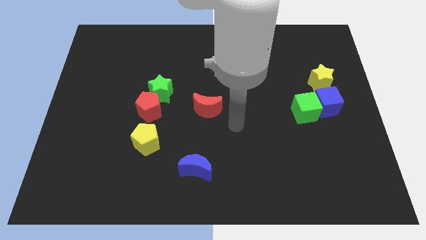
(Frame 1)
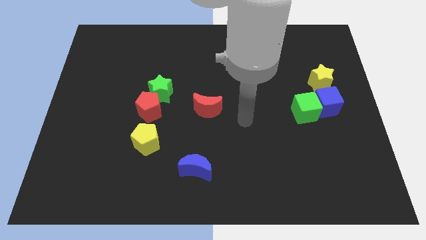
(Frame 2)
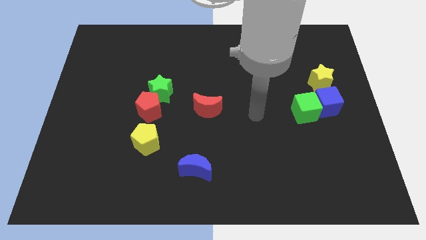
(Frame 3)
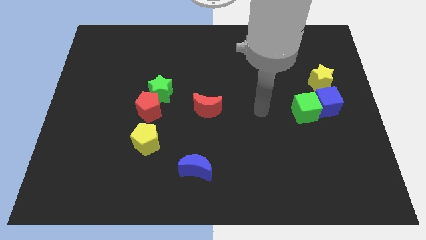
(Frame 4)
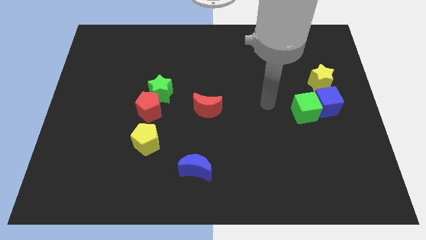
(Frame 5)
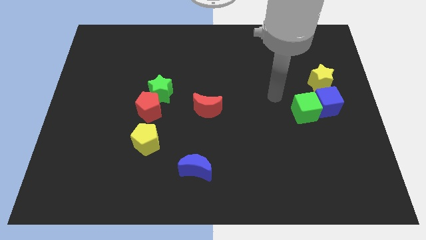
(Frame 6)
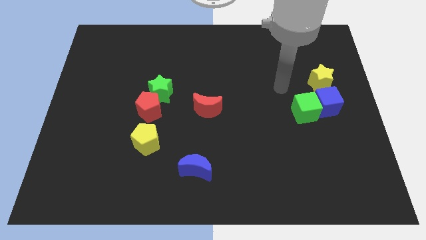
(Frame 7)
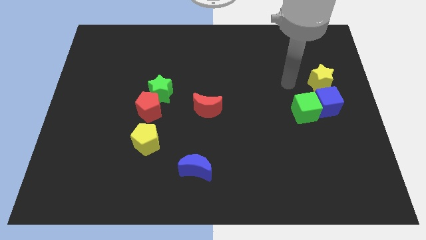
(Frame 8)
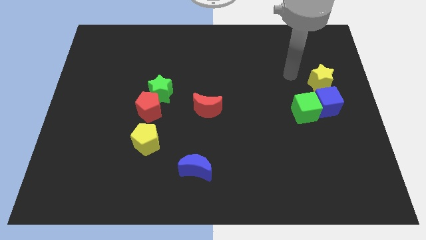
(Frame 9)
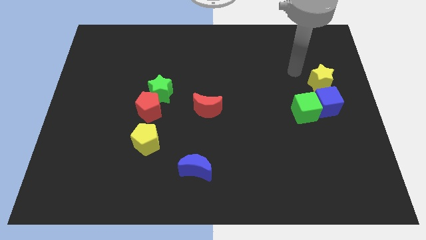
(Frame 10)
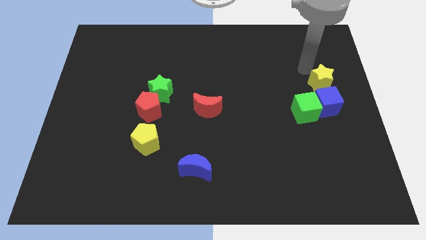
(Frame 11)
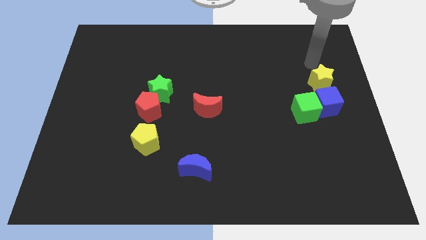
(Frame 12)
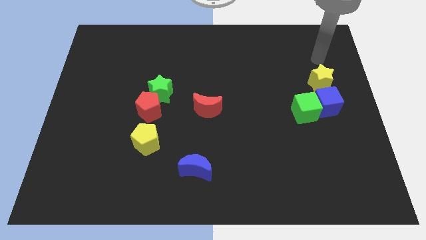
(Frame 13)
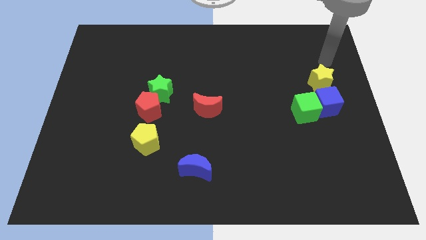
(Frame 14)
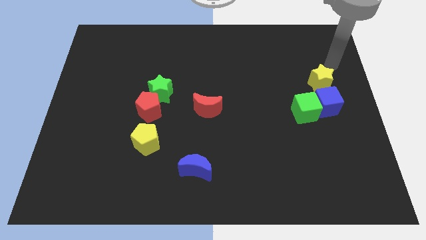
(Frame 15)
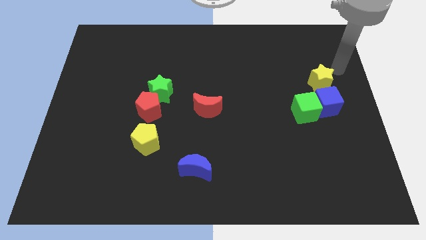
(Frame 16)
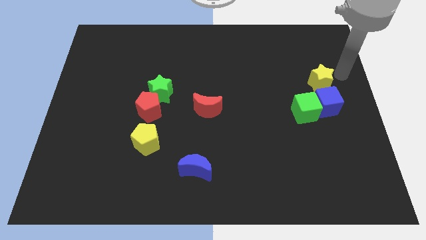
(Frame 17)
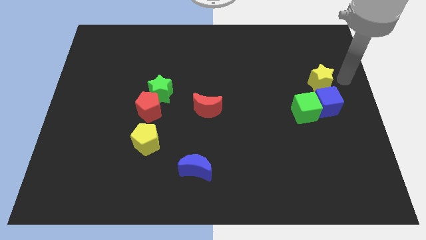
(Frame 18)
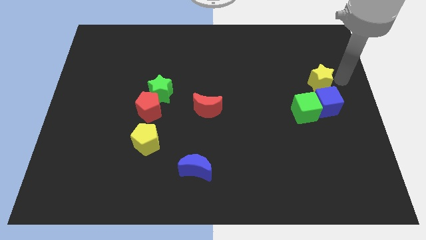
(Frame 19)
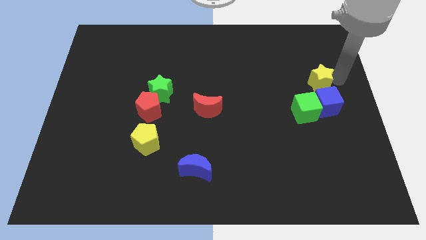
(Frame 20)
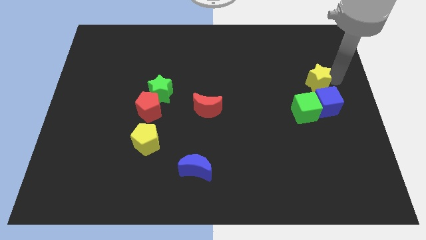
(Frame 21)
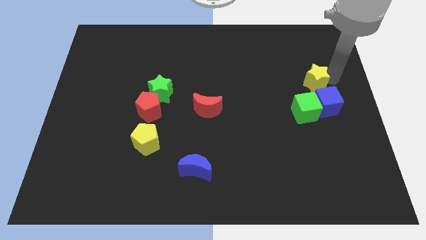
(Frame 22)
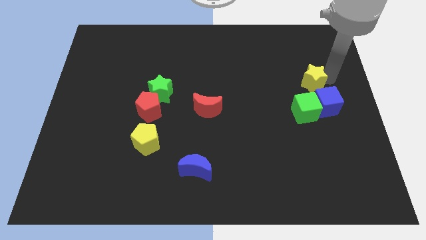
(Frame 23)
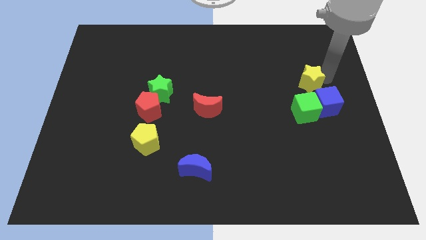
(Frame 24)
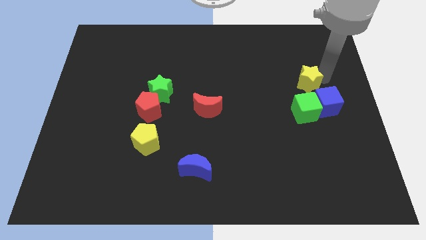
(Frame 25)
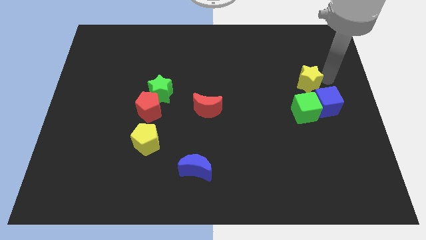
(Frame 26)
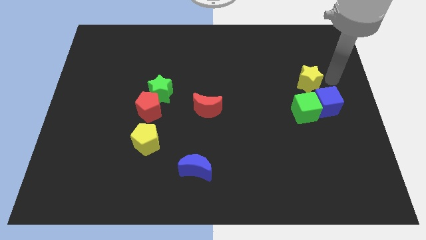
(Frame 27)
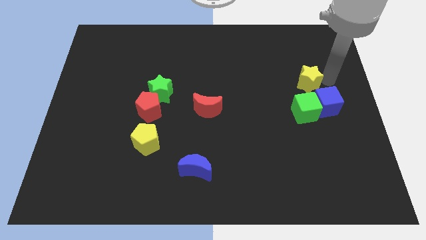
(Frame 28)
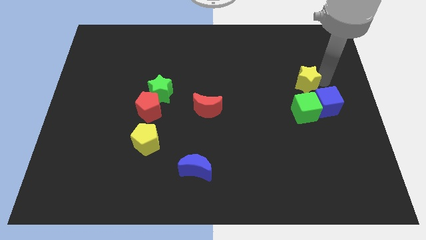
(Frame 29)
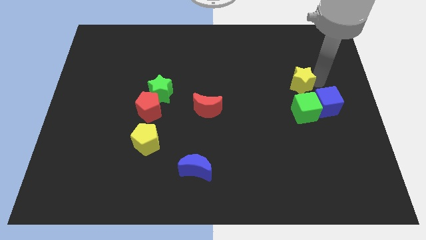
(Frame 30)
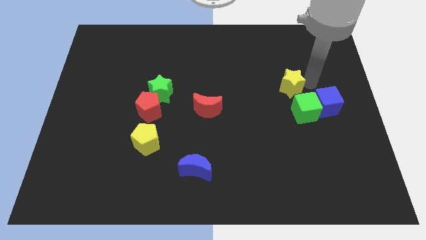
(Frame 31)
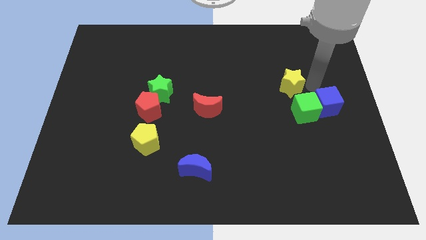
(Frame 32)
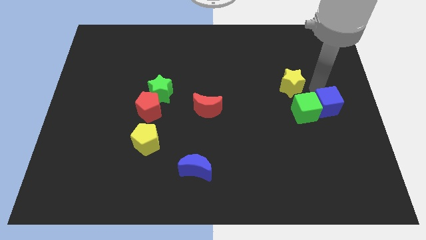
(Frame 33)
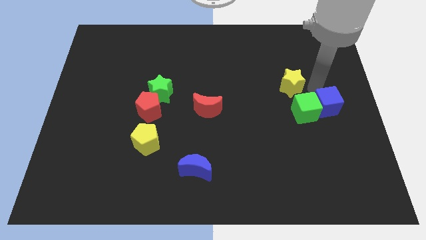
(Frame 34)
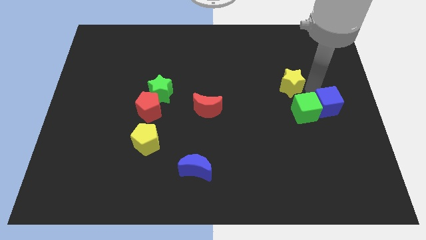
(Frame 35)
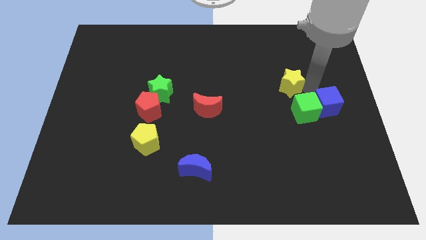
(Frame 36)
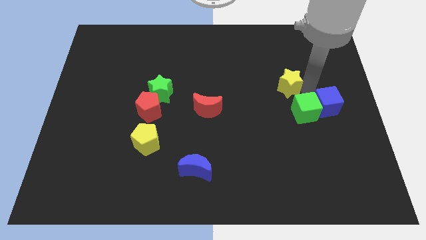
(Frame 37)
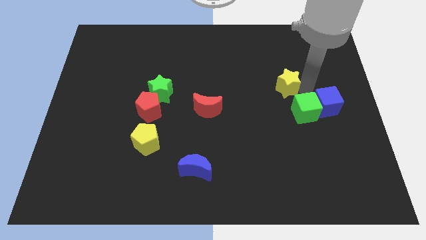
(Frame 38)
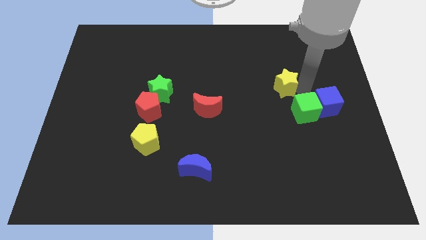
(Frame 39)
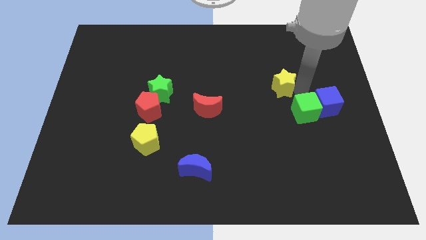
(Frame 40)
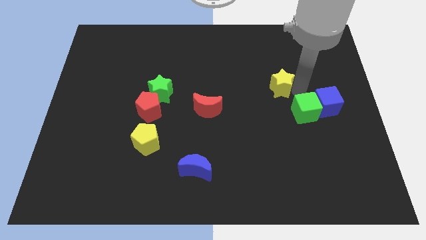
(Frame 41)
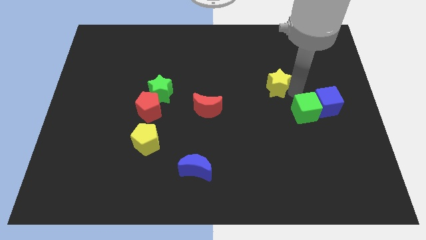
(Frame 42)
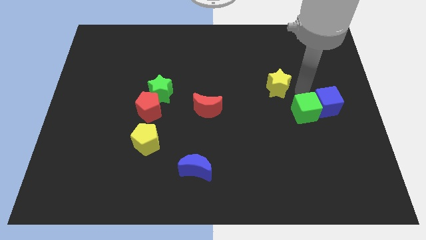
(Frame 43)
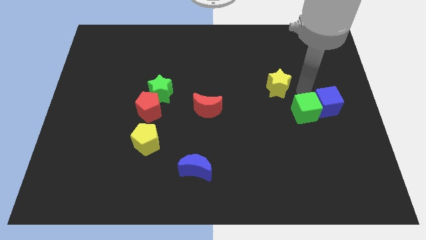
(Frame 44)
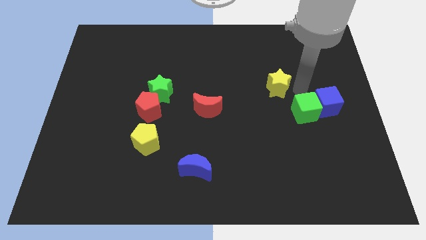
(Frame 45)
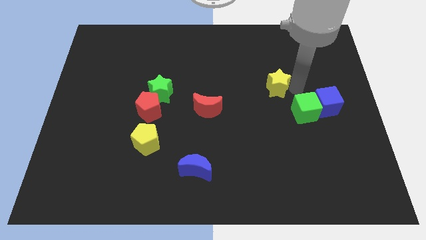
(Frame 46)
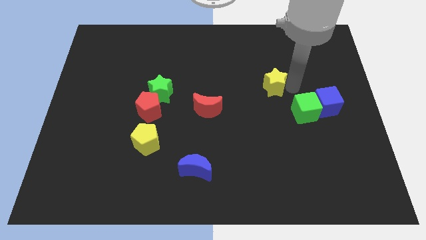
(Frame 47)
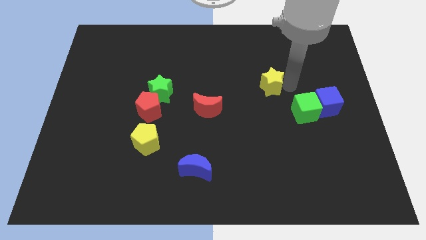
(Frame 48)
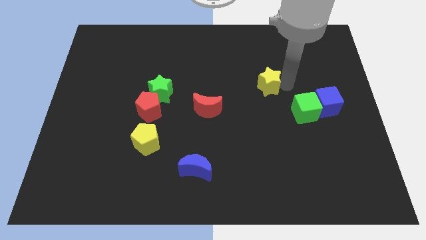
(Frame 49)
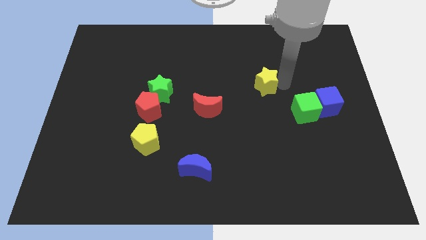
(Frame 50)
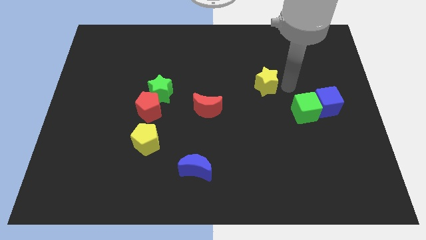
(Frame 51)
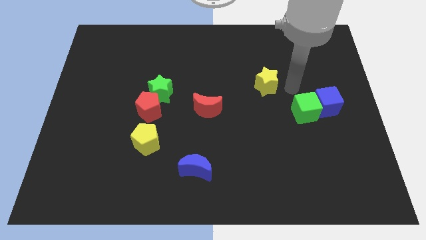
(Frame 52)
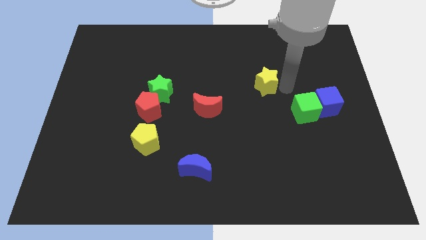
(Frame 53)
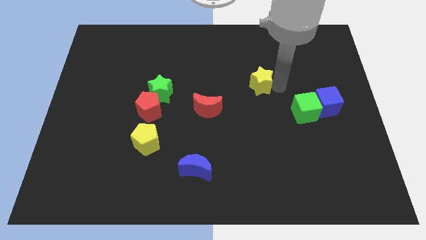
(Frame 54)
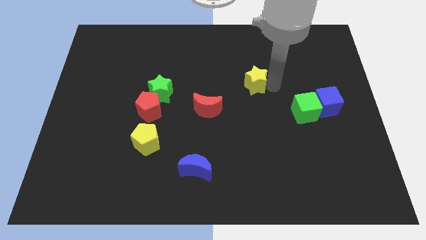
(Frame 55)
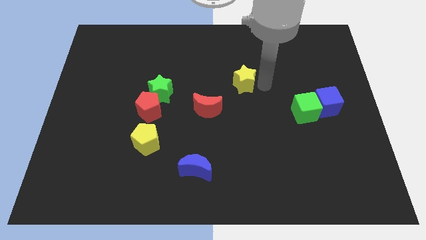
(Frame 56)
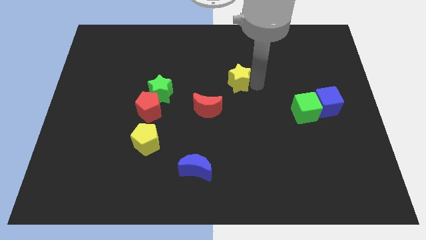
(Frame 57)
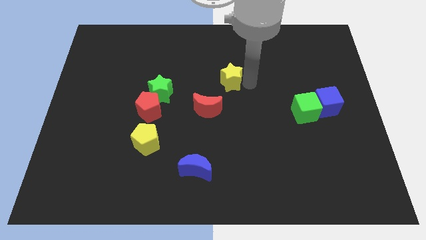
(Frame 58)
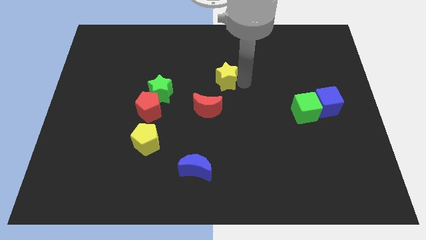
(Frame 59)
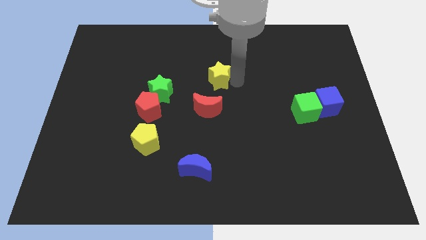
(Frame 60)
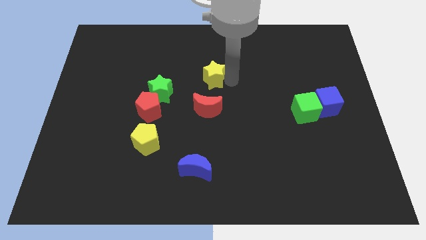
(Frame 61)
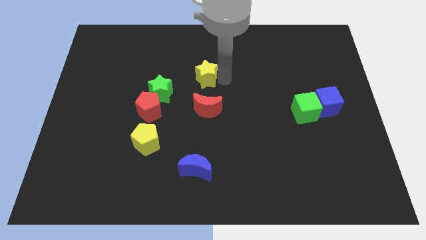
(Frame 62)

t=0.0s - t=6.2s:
slide the yellow star to the top right side of the green star
